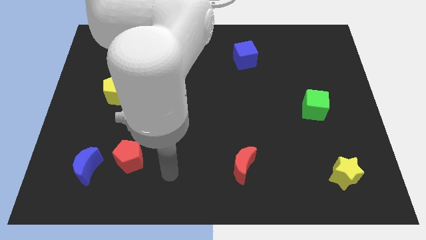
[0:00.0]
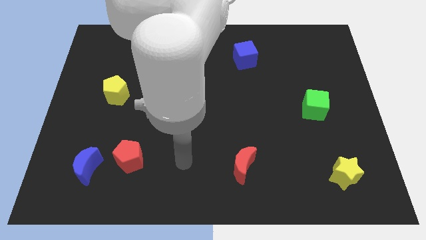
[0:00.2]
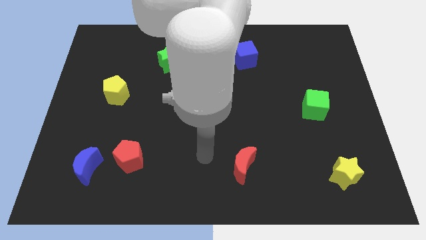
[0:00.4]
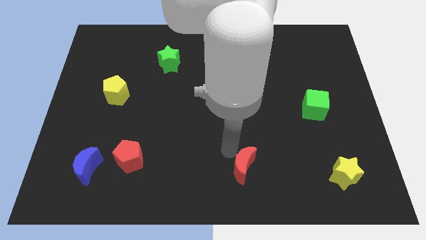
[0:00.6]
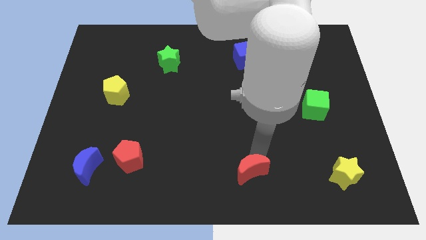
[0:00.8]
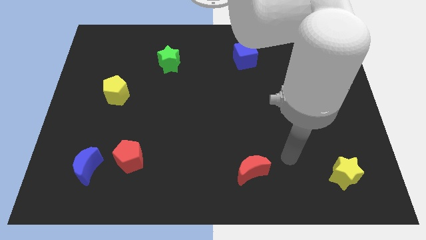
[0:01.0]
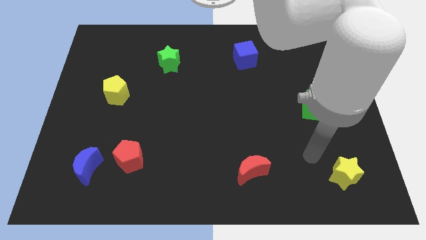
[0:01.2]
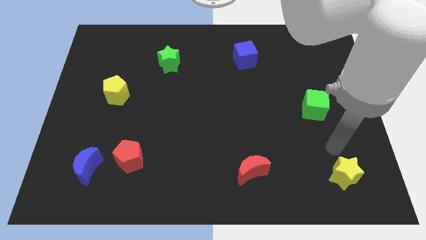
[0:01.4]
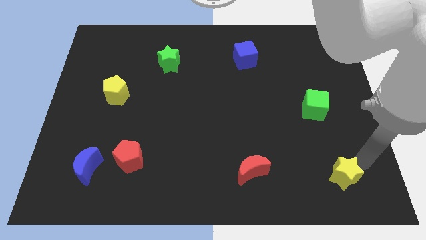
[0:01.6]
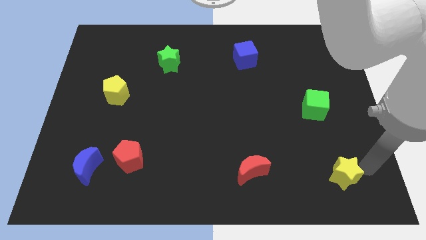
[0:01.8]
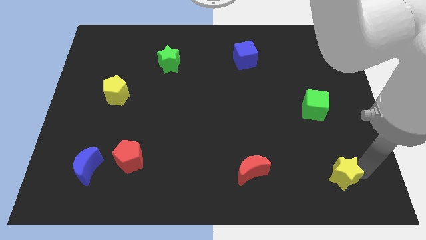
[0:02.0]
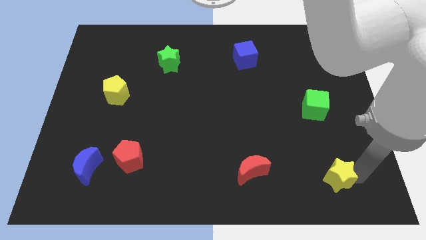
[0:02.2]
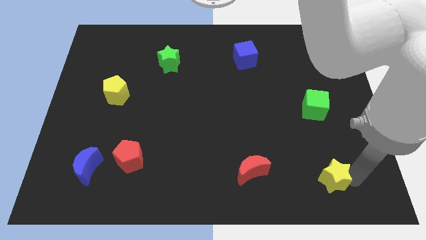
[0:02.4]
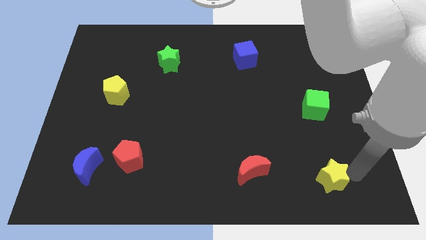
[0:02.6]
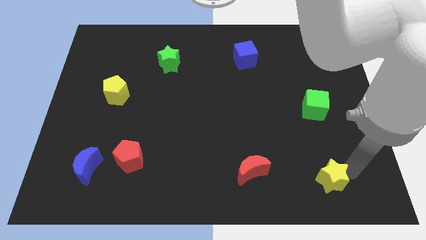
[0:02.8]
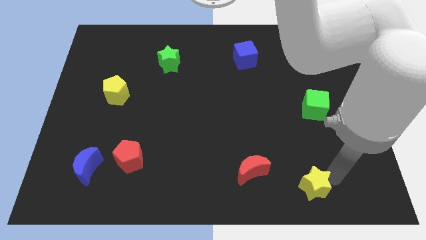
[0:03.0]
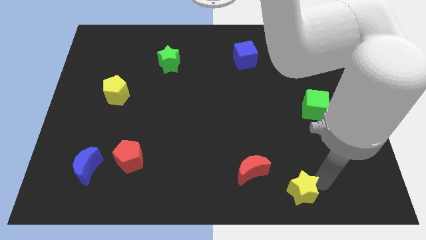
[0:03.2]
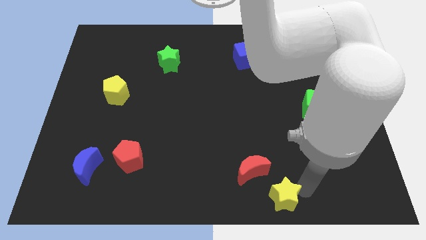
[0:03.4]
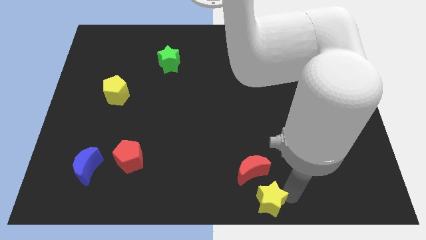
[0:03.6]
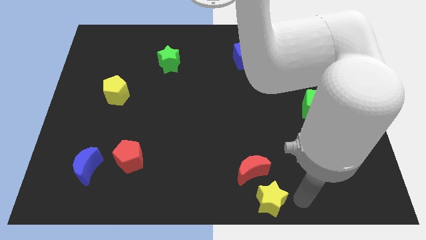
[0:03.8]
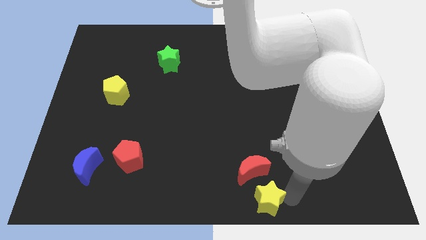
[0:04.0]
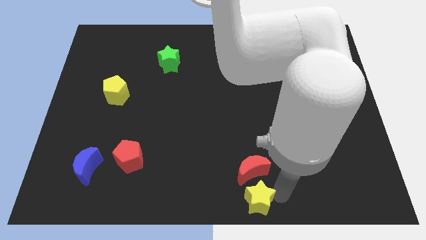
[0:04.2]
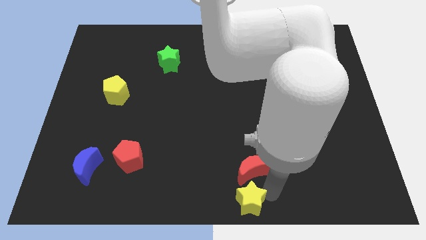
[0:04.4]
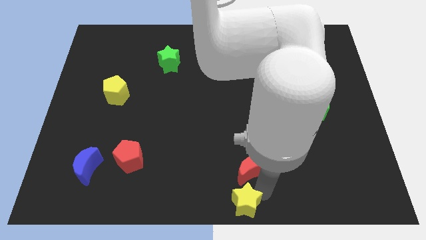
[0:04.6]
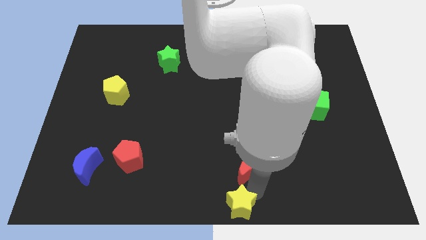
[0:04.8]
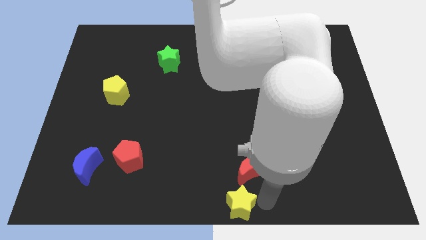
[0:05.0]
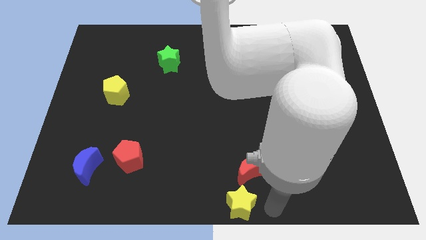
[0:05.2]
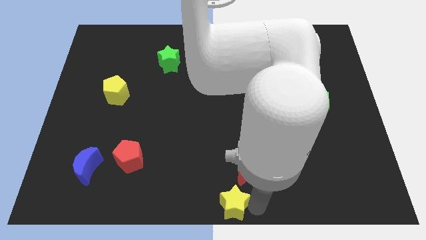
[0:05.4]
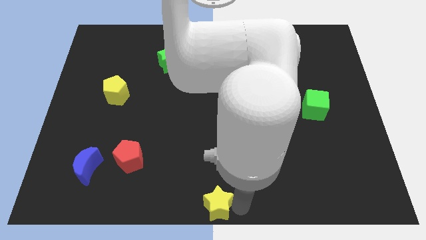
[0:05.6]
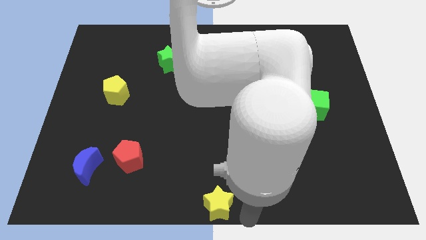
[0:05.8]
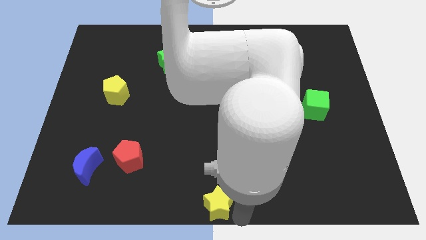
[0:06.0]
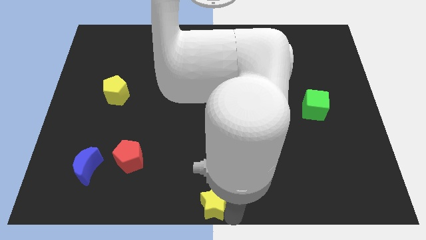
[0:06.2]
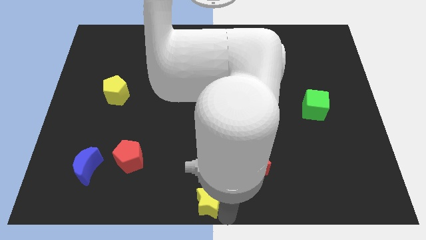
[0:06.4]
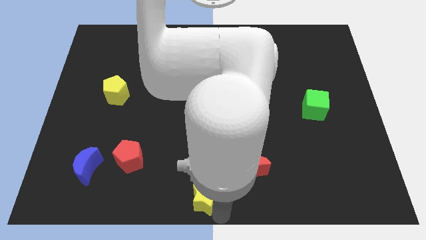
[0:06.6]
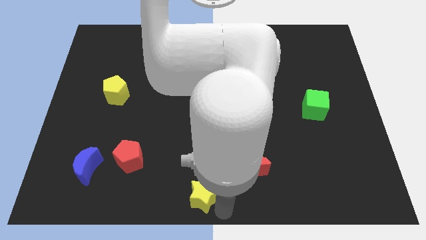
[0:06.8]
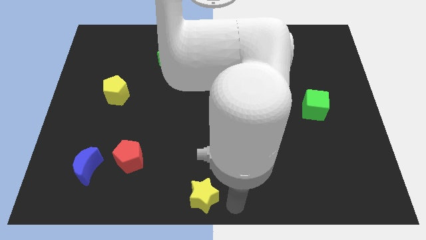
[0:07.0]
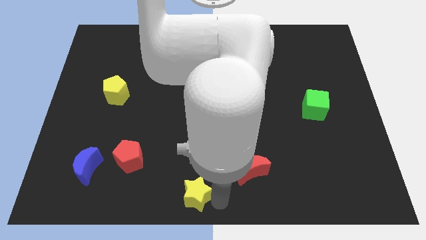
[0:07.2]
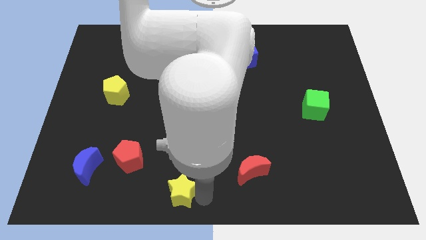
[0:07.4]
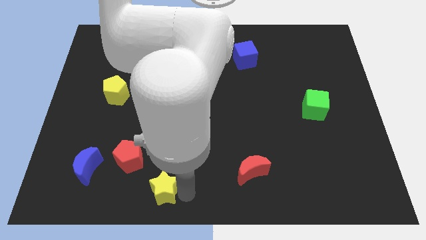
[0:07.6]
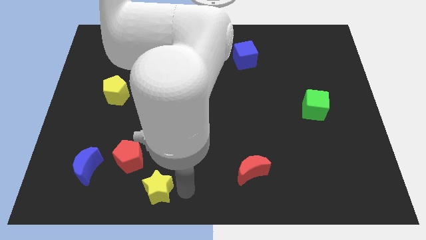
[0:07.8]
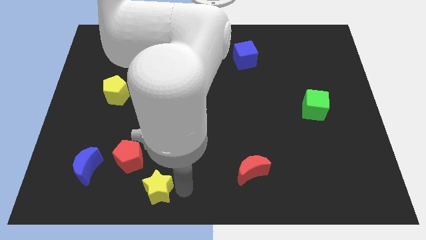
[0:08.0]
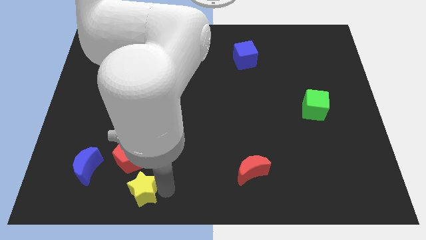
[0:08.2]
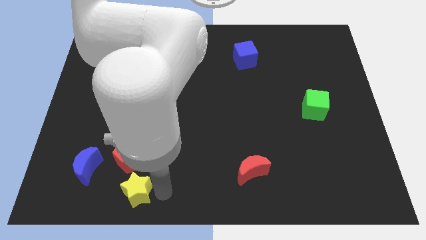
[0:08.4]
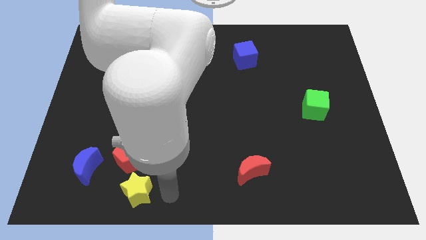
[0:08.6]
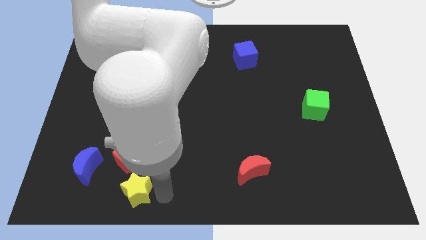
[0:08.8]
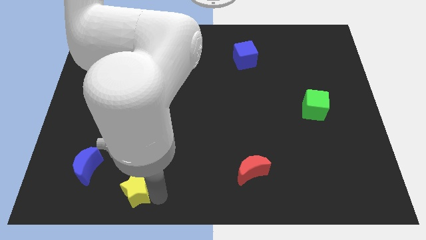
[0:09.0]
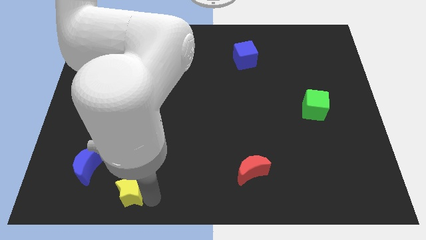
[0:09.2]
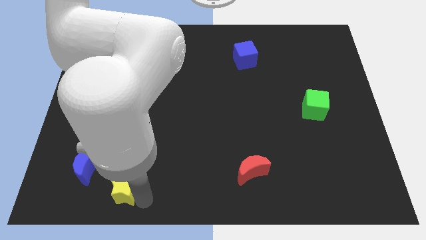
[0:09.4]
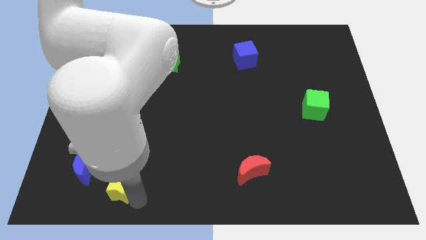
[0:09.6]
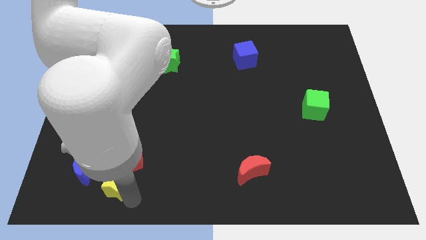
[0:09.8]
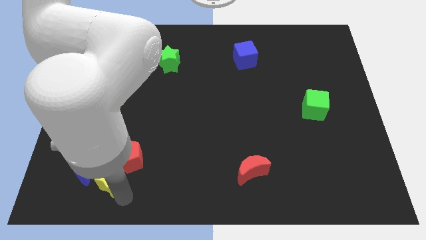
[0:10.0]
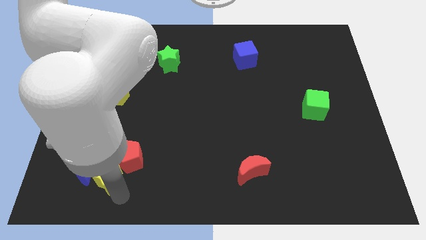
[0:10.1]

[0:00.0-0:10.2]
put the yellow star close to the blue moon

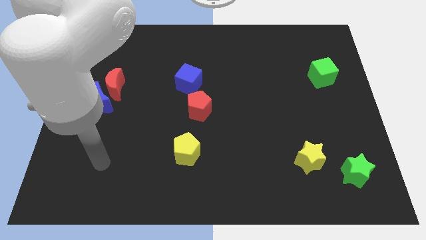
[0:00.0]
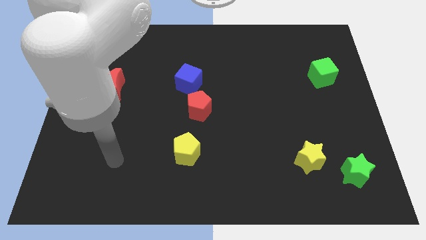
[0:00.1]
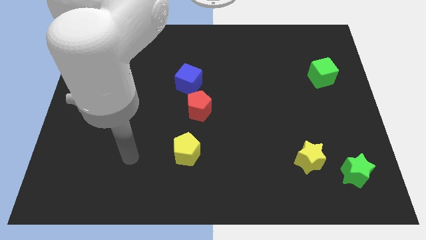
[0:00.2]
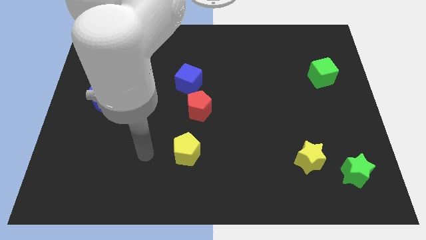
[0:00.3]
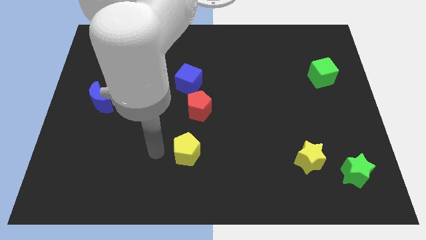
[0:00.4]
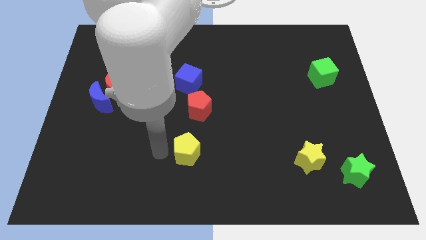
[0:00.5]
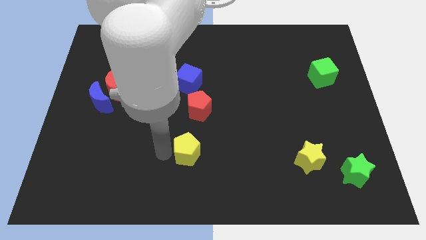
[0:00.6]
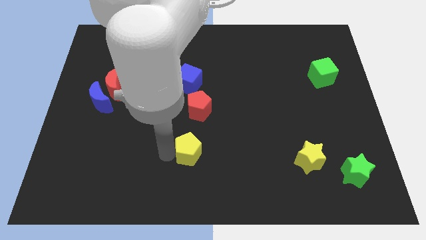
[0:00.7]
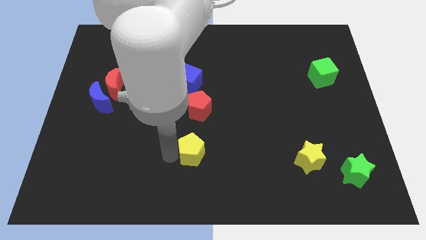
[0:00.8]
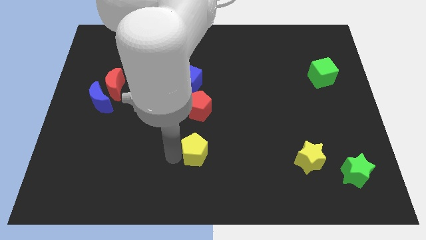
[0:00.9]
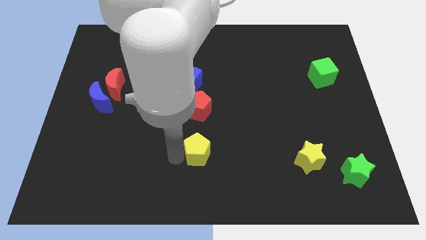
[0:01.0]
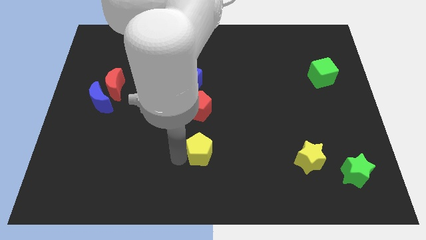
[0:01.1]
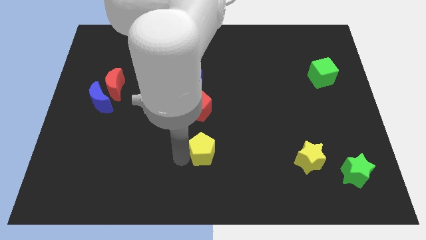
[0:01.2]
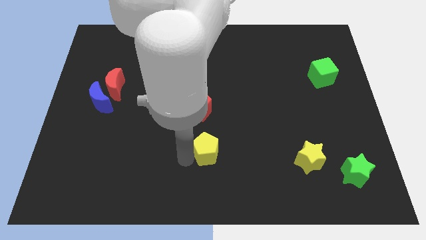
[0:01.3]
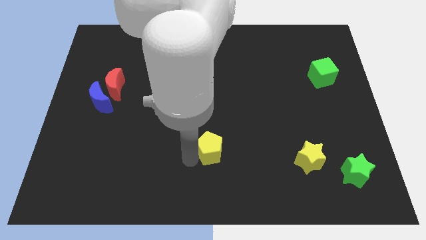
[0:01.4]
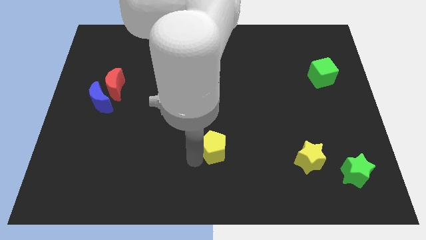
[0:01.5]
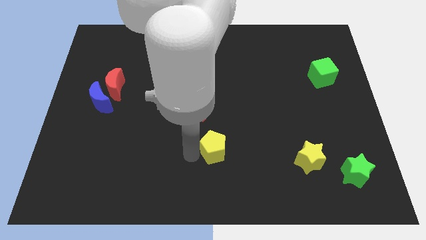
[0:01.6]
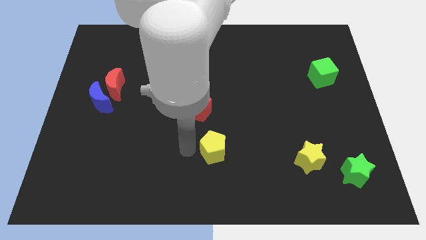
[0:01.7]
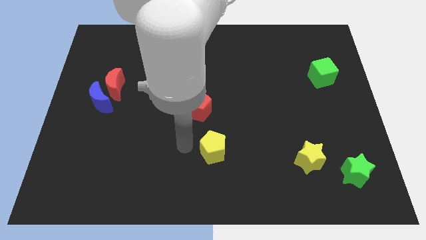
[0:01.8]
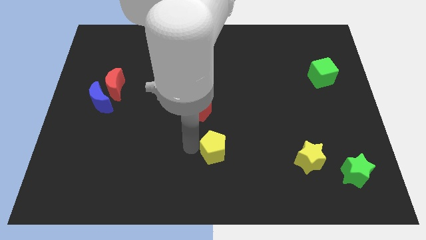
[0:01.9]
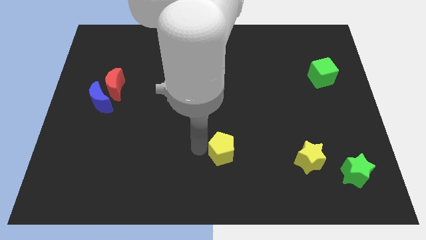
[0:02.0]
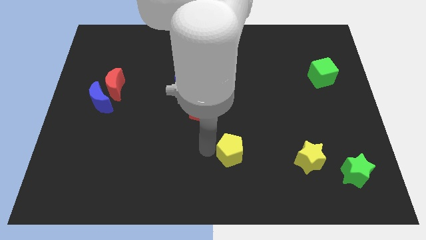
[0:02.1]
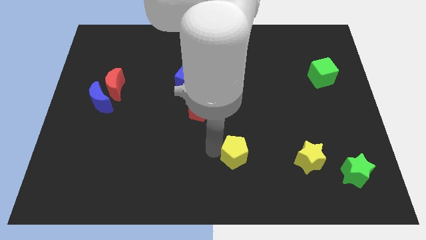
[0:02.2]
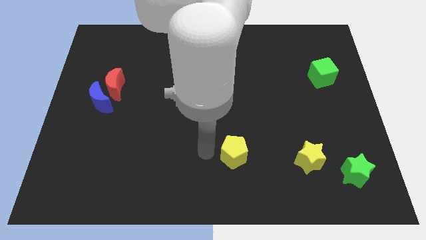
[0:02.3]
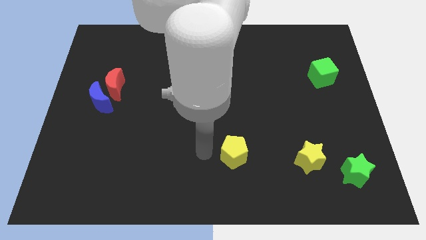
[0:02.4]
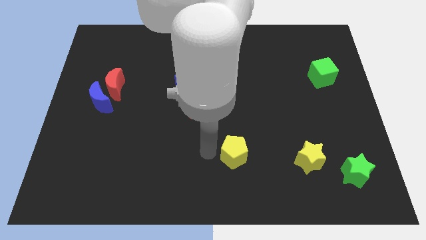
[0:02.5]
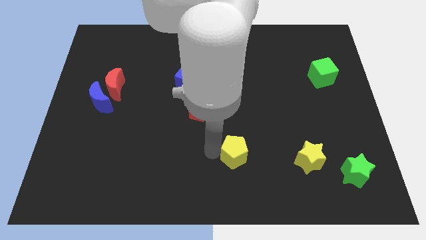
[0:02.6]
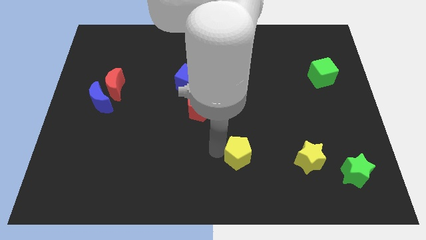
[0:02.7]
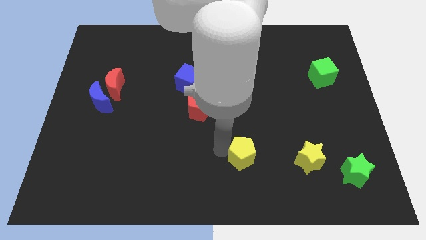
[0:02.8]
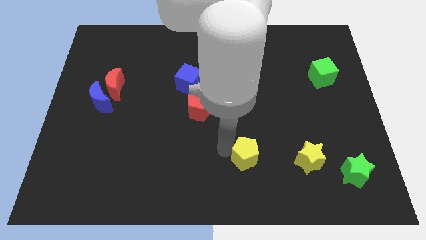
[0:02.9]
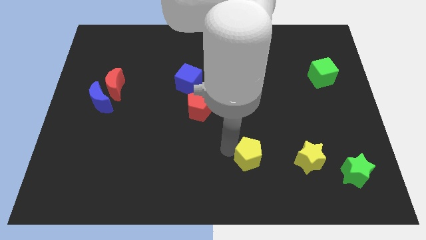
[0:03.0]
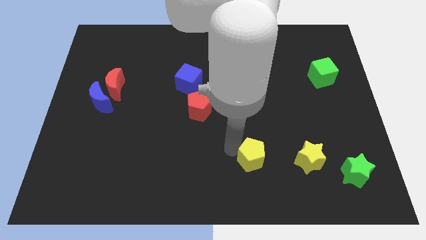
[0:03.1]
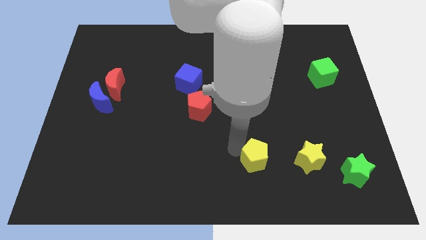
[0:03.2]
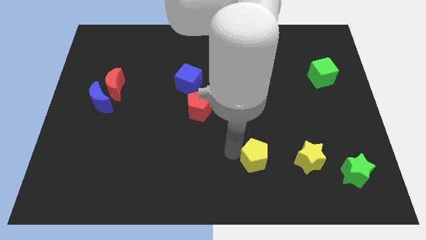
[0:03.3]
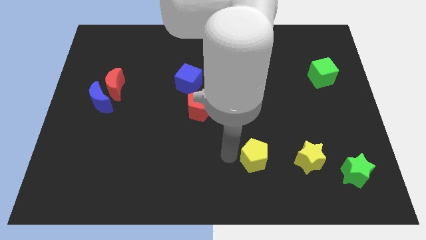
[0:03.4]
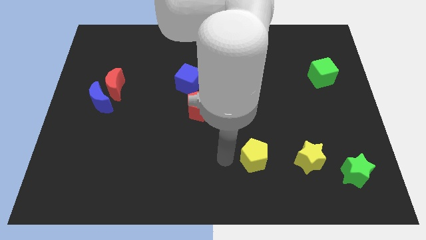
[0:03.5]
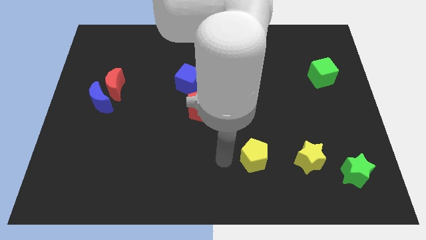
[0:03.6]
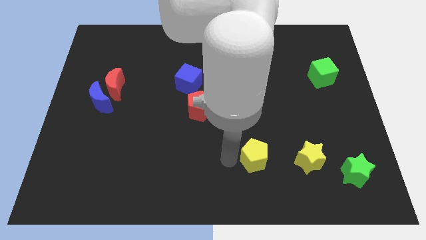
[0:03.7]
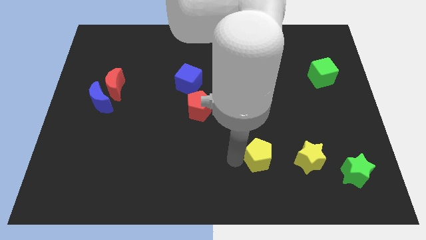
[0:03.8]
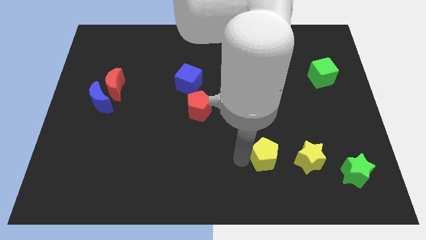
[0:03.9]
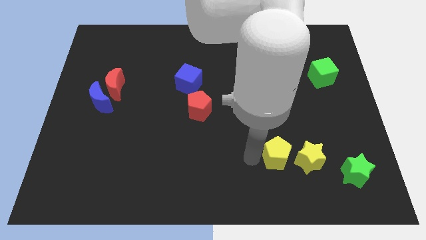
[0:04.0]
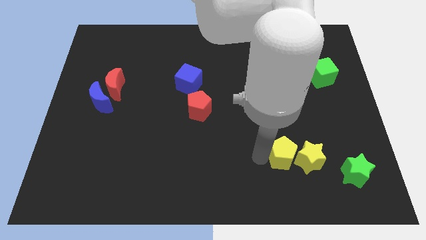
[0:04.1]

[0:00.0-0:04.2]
push the yellow pentagon towards the yellow star
